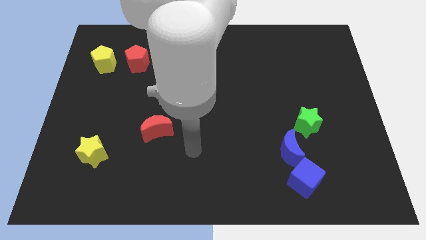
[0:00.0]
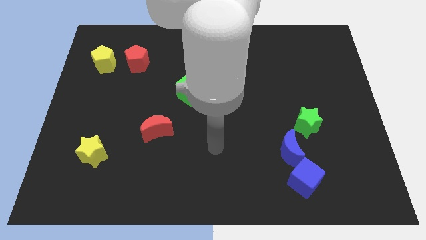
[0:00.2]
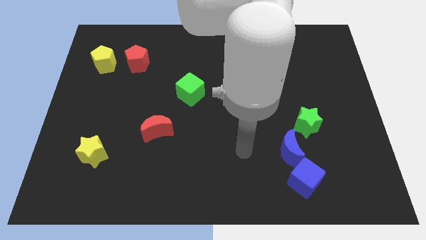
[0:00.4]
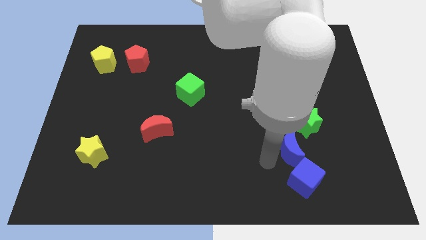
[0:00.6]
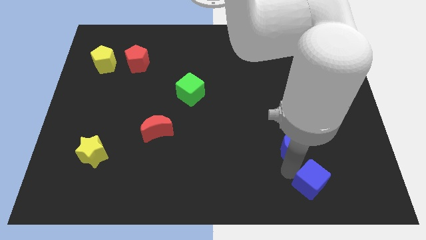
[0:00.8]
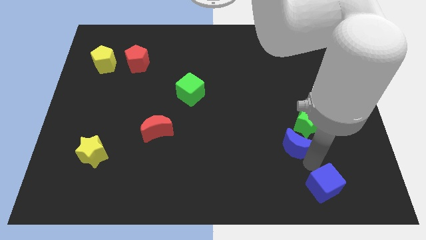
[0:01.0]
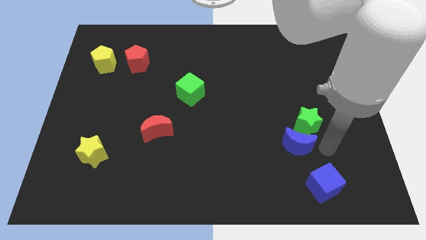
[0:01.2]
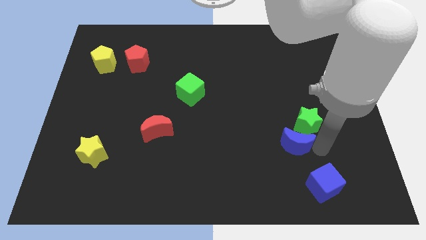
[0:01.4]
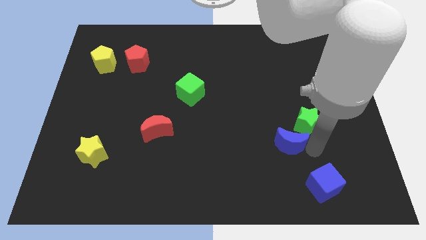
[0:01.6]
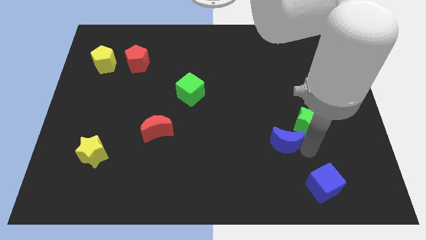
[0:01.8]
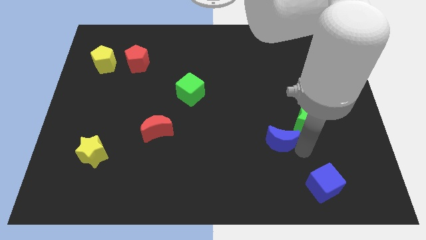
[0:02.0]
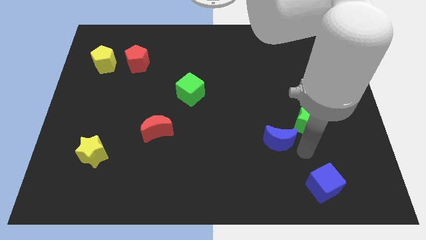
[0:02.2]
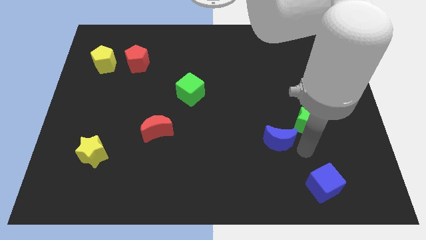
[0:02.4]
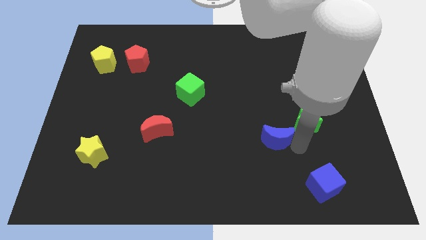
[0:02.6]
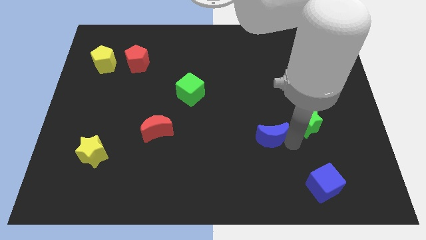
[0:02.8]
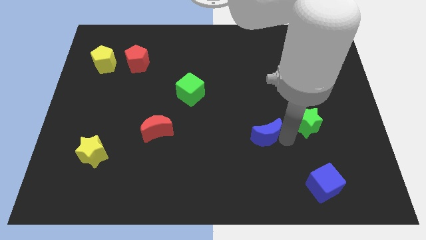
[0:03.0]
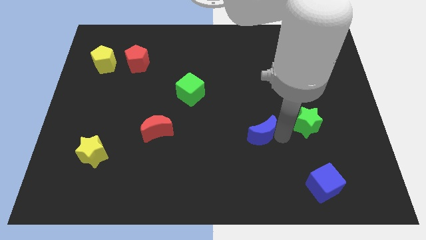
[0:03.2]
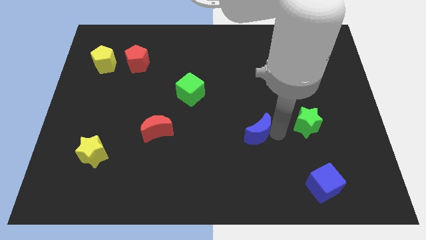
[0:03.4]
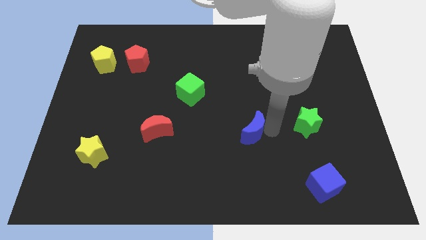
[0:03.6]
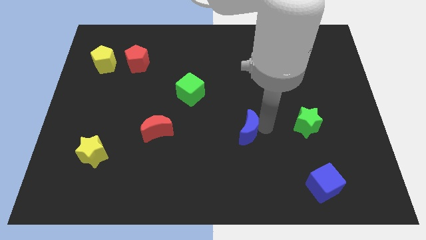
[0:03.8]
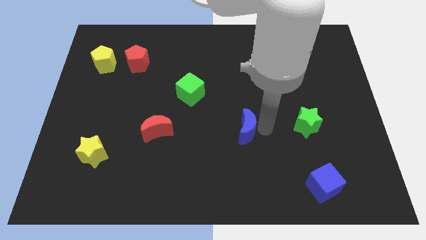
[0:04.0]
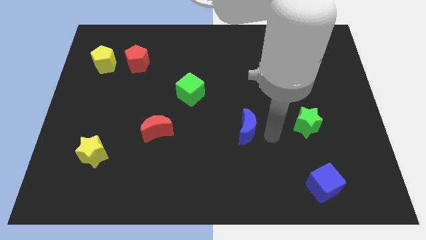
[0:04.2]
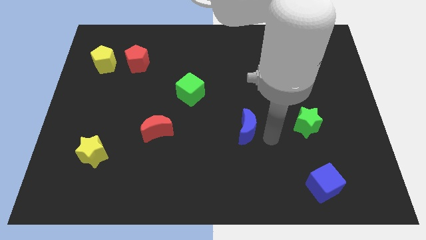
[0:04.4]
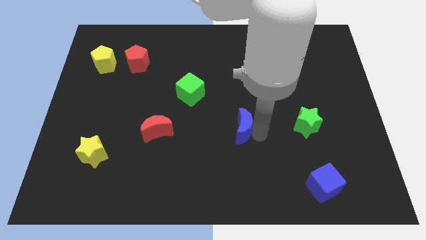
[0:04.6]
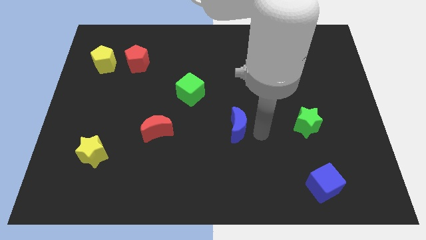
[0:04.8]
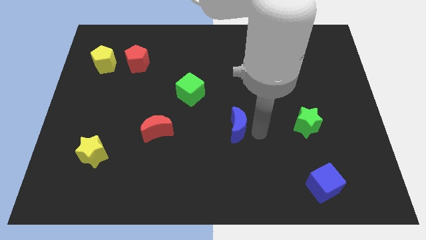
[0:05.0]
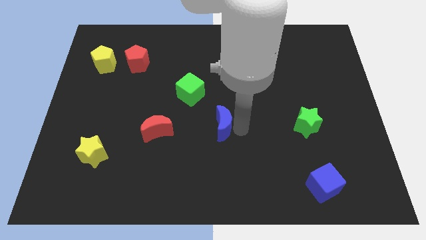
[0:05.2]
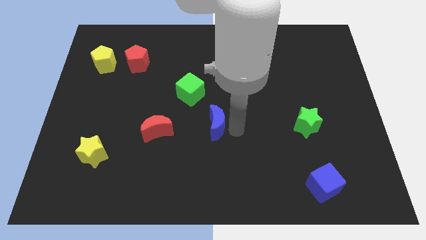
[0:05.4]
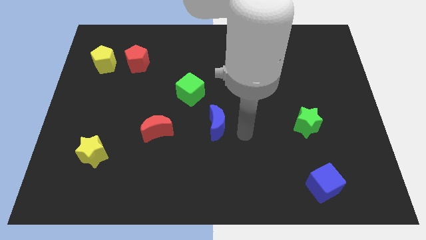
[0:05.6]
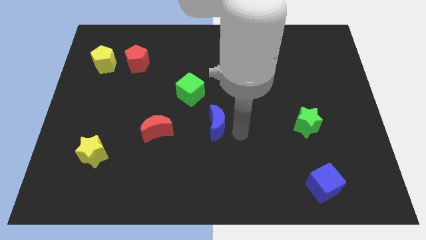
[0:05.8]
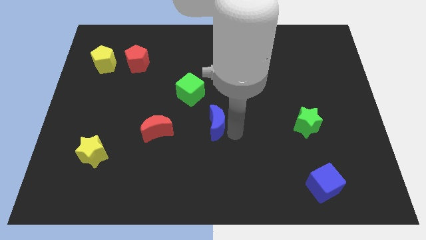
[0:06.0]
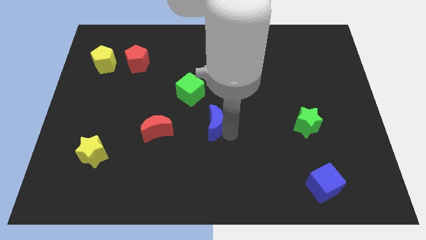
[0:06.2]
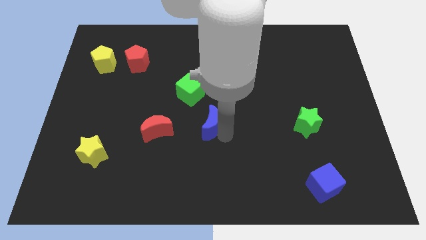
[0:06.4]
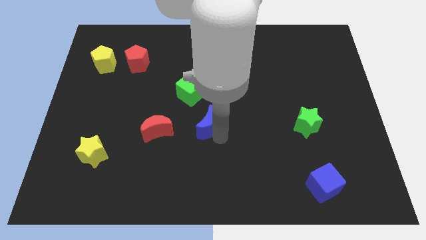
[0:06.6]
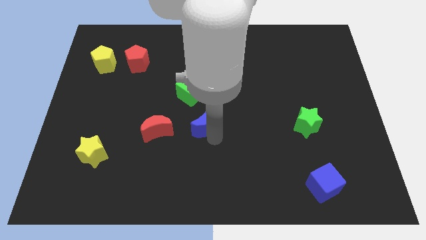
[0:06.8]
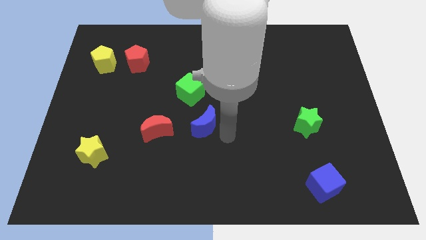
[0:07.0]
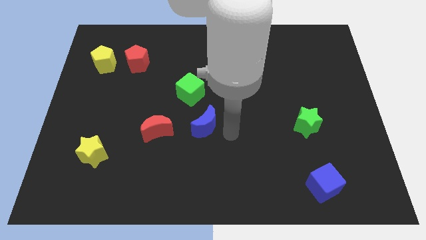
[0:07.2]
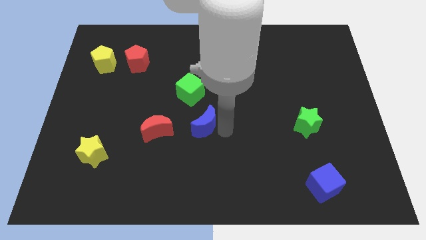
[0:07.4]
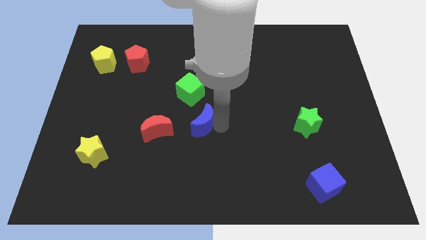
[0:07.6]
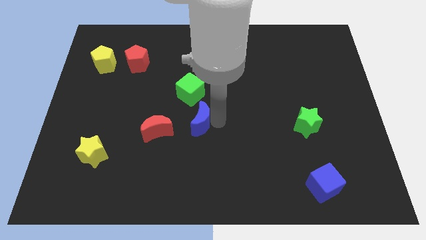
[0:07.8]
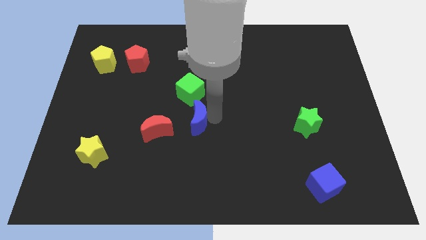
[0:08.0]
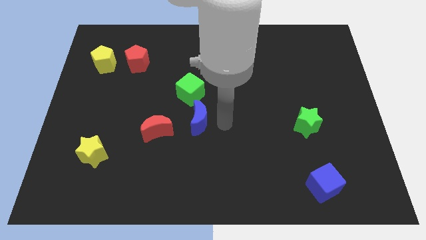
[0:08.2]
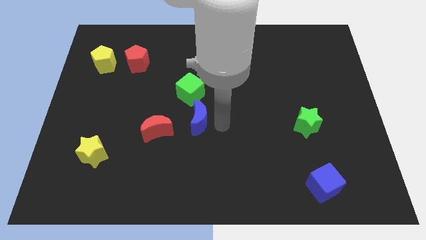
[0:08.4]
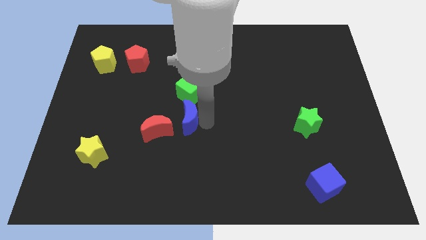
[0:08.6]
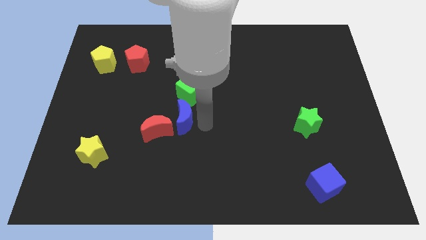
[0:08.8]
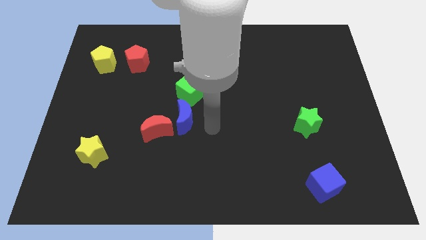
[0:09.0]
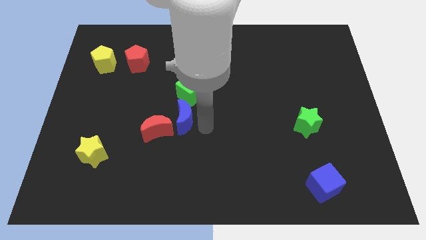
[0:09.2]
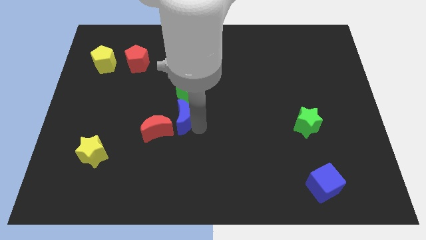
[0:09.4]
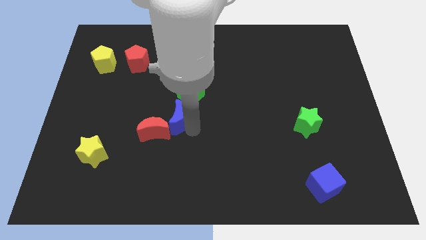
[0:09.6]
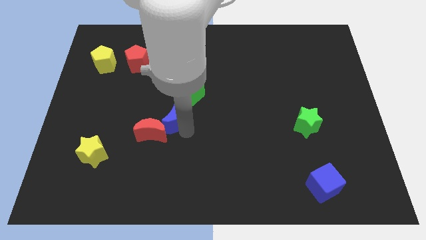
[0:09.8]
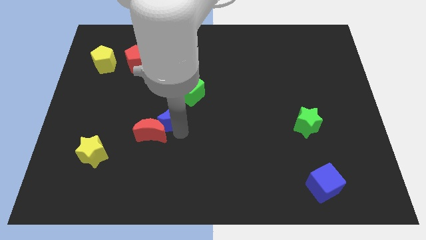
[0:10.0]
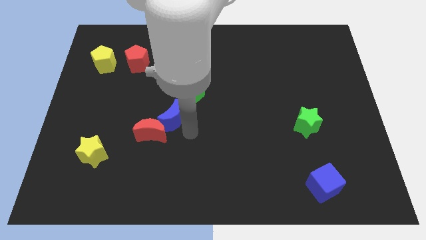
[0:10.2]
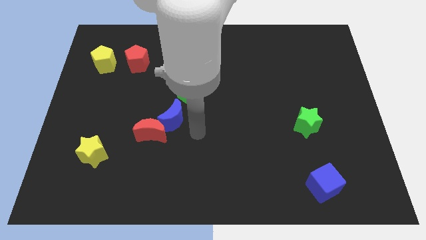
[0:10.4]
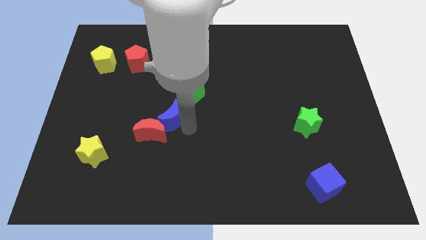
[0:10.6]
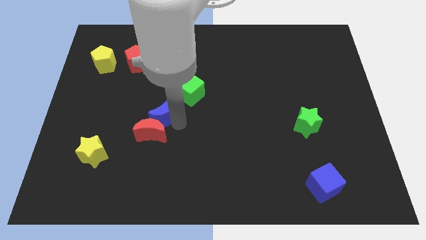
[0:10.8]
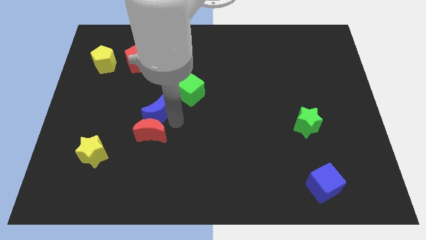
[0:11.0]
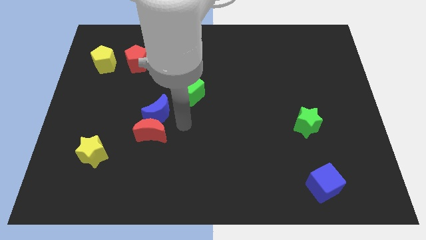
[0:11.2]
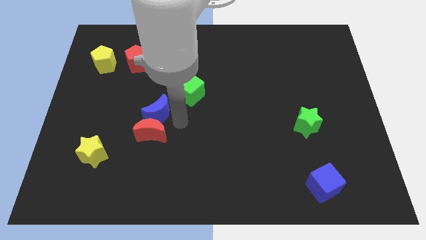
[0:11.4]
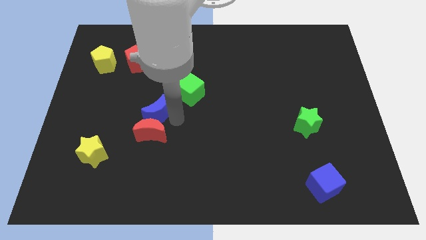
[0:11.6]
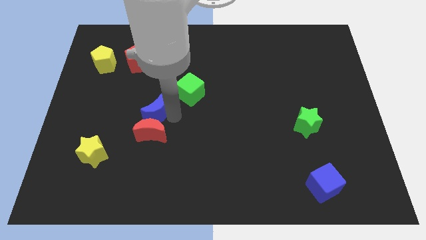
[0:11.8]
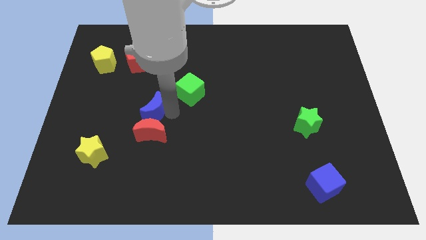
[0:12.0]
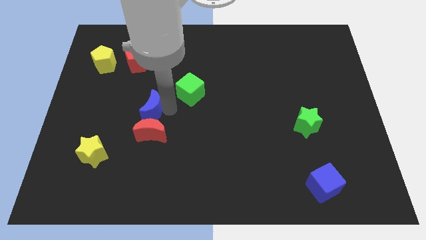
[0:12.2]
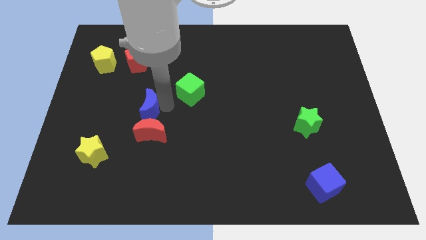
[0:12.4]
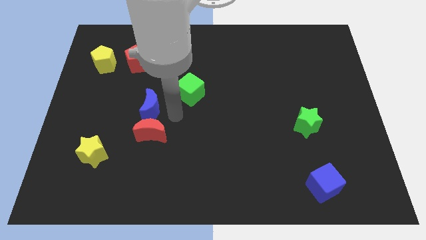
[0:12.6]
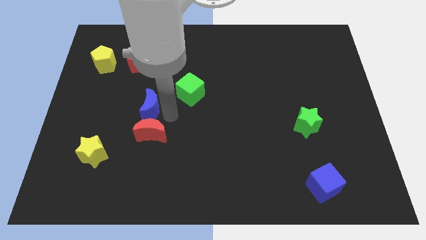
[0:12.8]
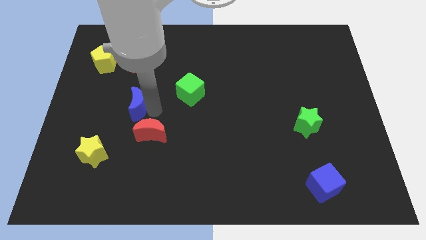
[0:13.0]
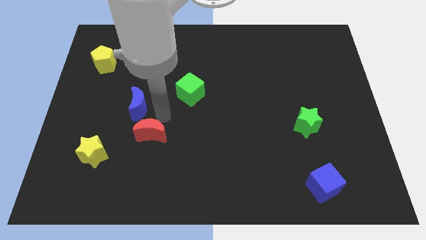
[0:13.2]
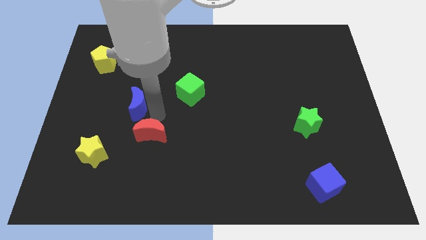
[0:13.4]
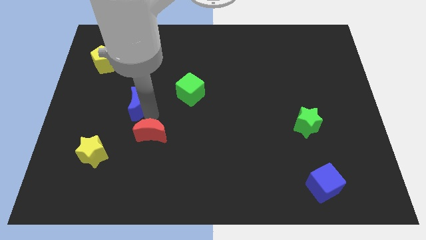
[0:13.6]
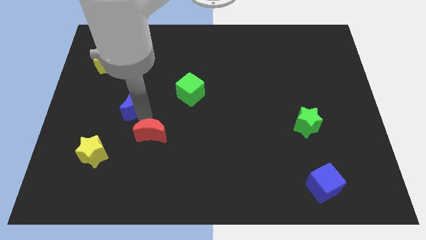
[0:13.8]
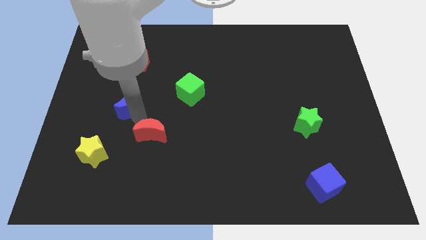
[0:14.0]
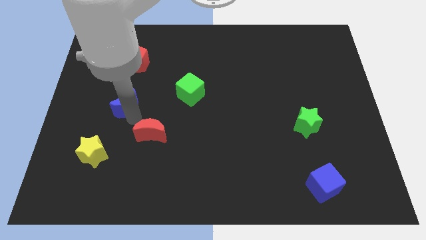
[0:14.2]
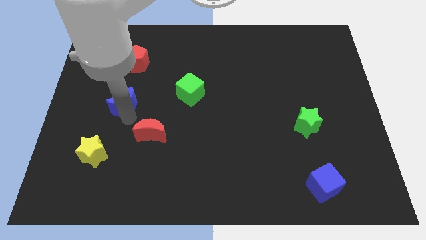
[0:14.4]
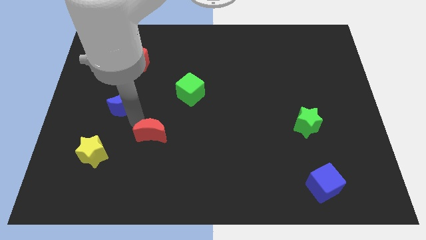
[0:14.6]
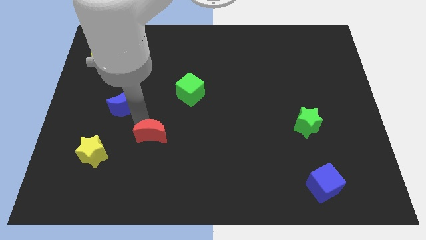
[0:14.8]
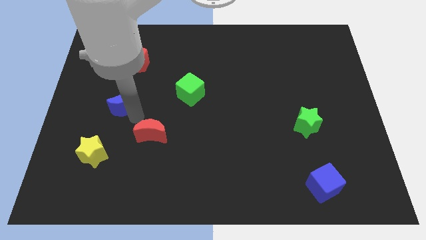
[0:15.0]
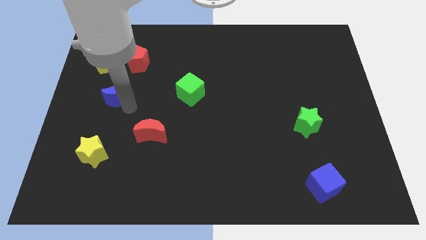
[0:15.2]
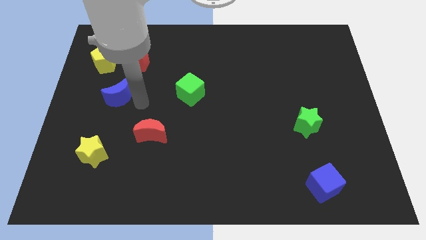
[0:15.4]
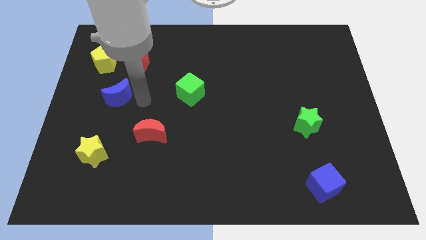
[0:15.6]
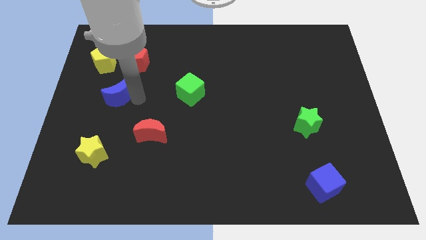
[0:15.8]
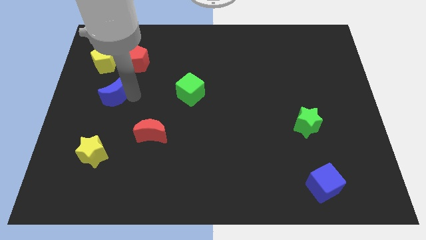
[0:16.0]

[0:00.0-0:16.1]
move the blue moon to the bottom of the yellow pentagon
